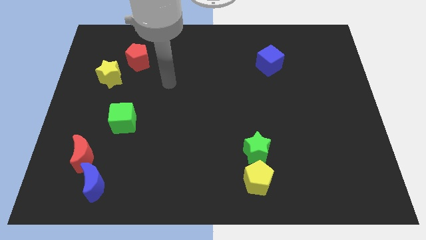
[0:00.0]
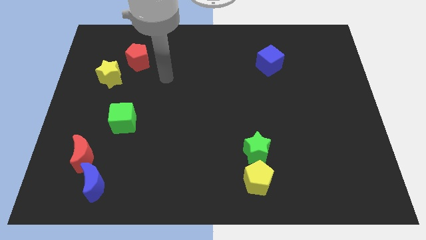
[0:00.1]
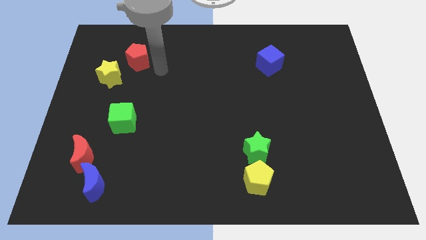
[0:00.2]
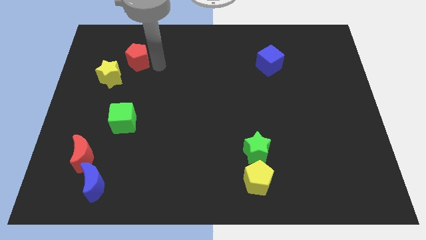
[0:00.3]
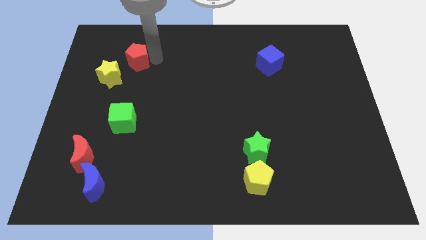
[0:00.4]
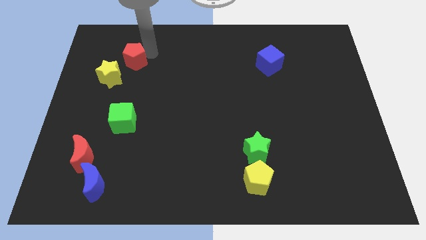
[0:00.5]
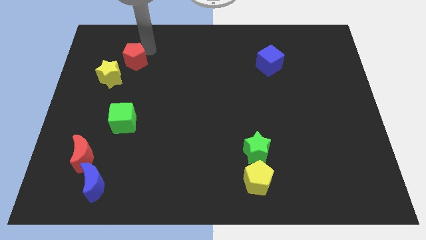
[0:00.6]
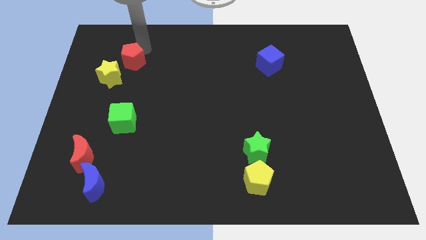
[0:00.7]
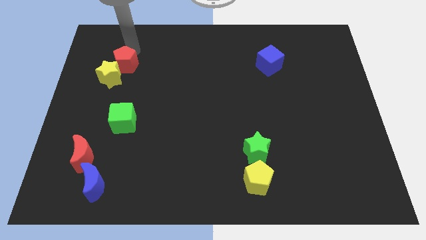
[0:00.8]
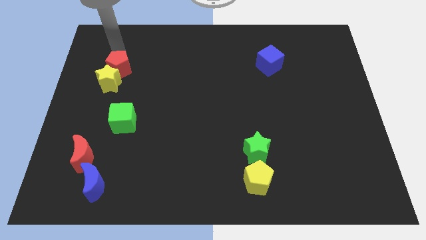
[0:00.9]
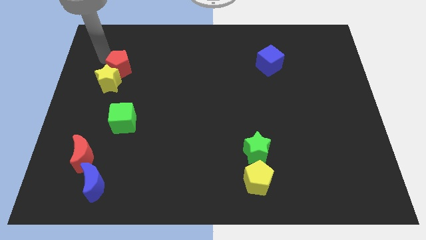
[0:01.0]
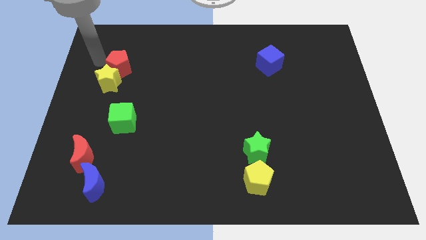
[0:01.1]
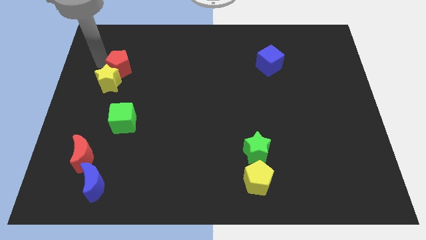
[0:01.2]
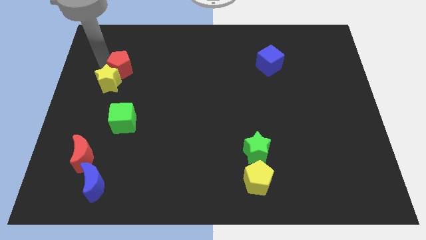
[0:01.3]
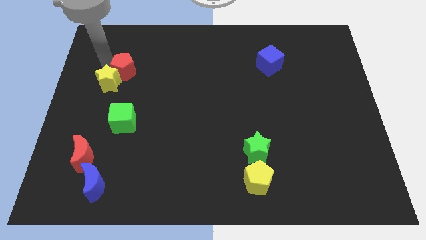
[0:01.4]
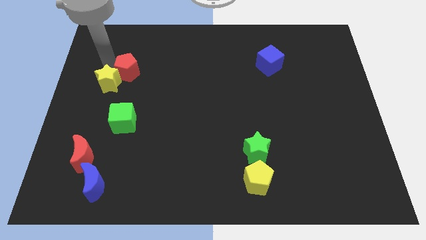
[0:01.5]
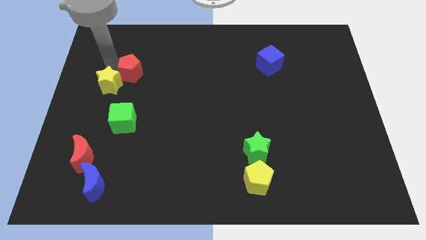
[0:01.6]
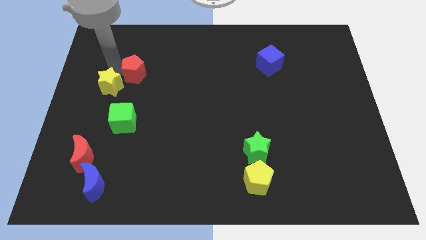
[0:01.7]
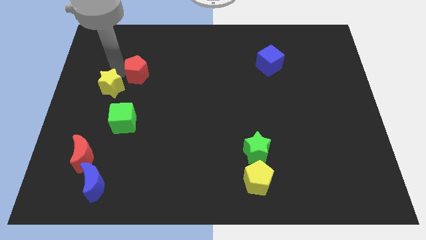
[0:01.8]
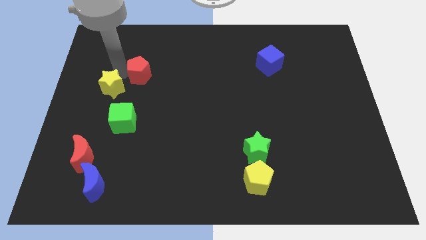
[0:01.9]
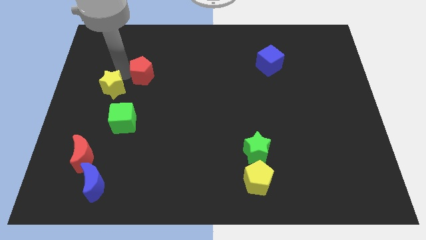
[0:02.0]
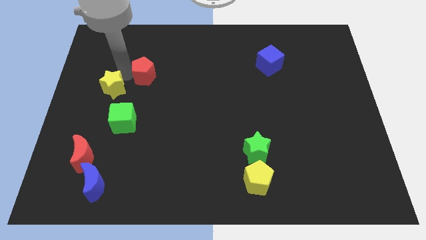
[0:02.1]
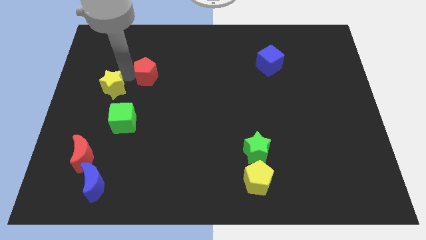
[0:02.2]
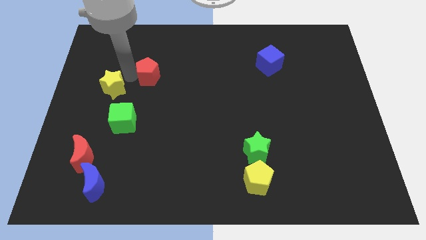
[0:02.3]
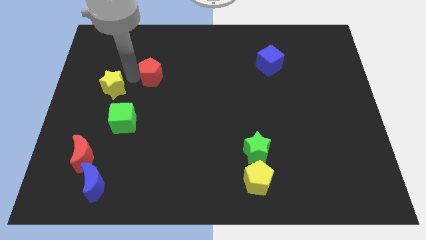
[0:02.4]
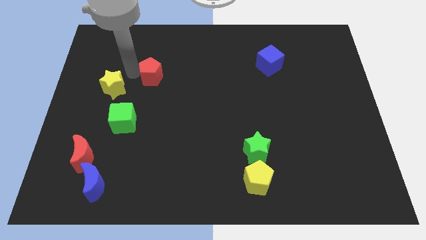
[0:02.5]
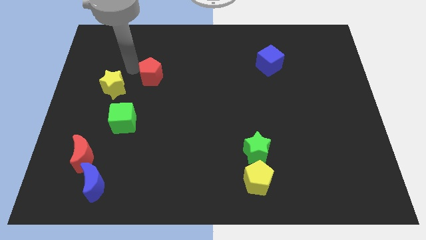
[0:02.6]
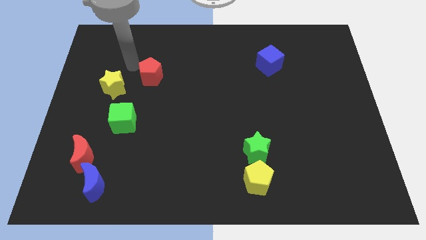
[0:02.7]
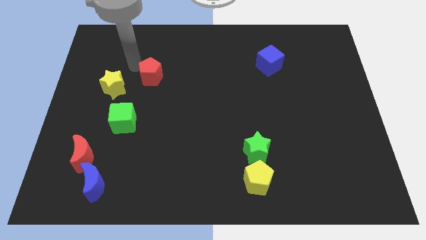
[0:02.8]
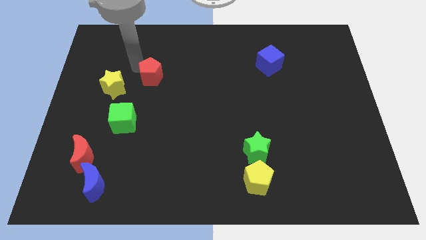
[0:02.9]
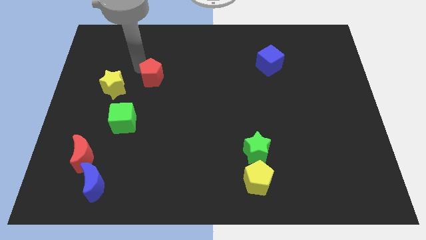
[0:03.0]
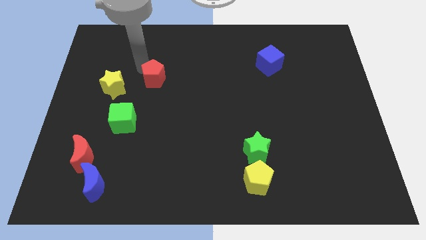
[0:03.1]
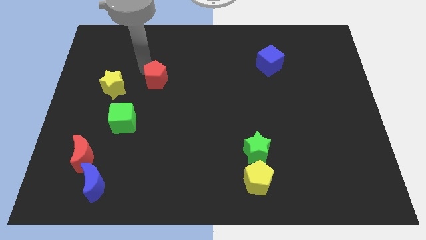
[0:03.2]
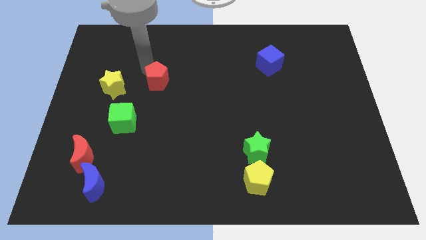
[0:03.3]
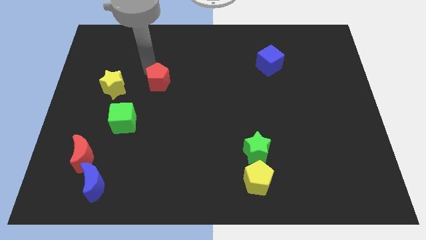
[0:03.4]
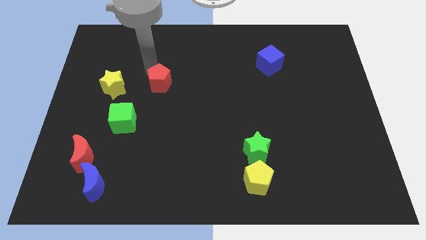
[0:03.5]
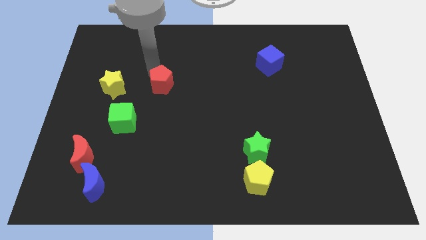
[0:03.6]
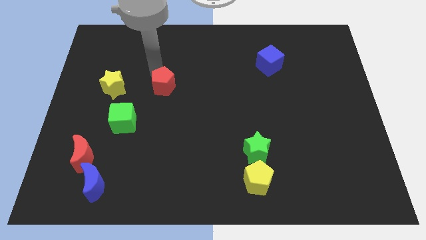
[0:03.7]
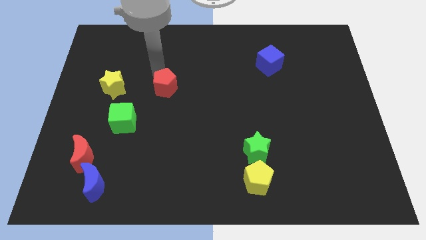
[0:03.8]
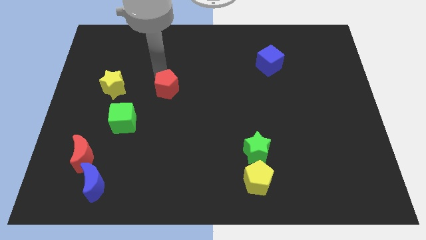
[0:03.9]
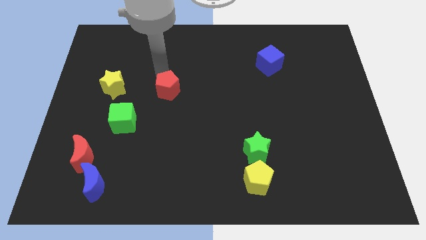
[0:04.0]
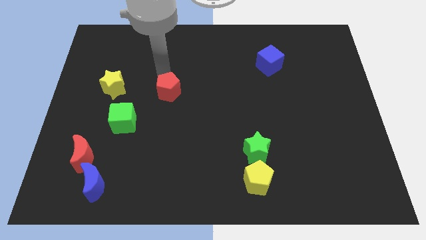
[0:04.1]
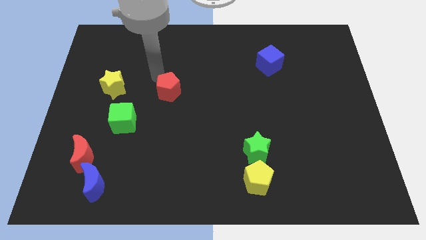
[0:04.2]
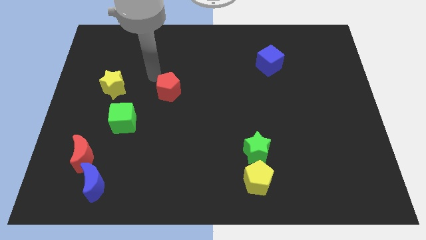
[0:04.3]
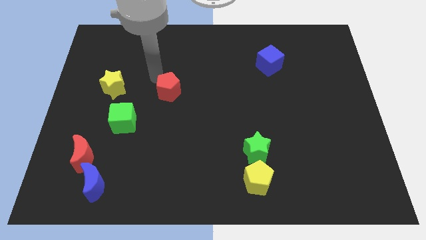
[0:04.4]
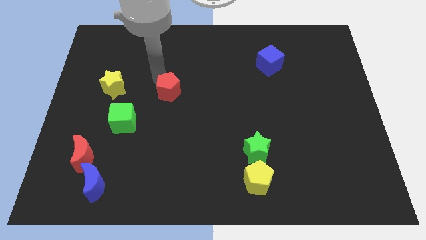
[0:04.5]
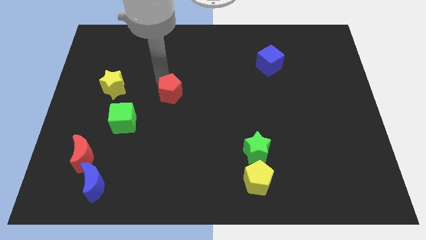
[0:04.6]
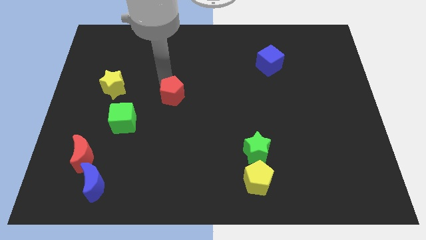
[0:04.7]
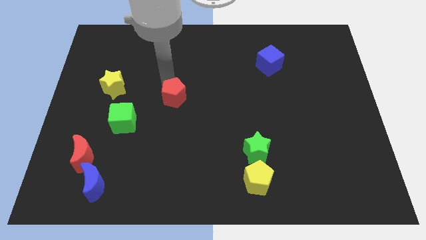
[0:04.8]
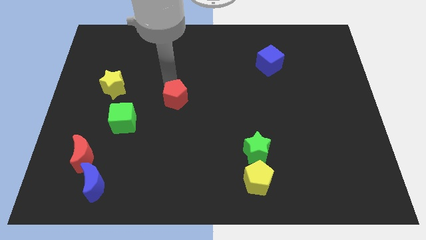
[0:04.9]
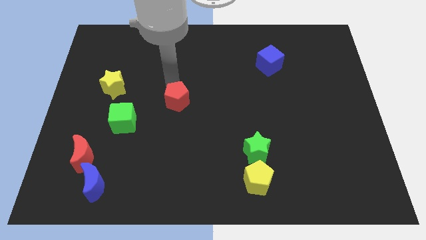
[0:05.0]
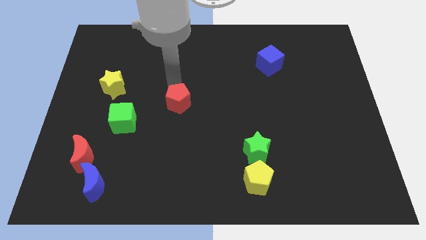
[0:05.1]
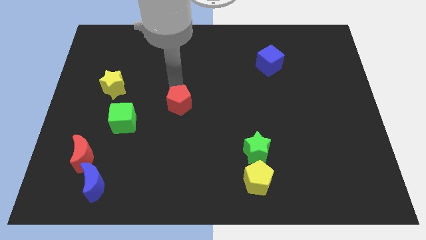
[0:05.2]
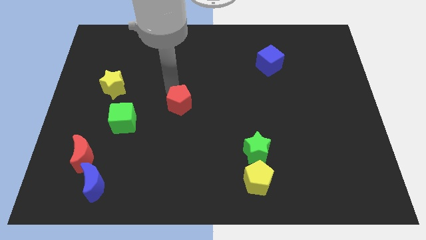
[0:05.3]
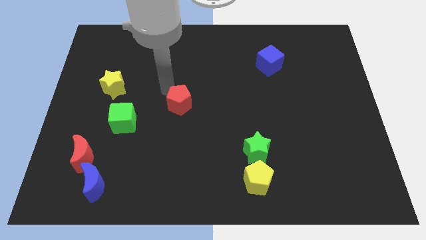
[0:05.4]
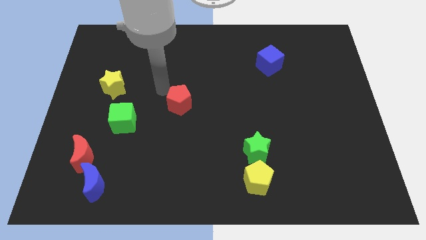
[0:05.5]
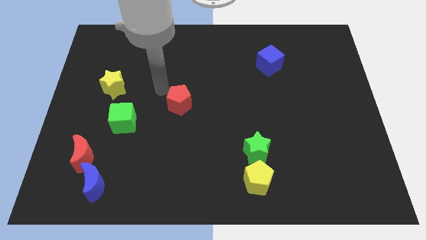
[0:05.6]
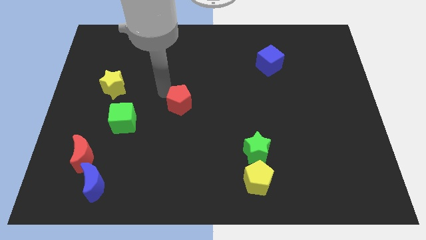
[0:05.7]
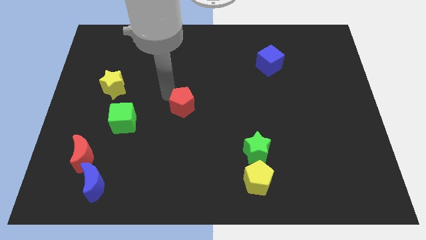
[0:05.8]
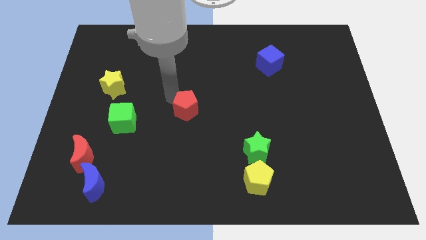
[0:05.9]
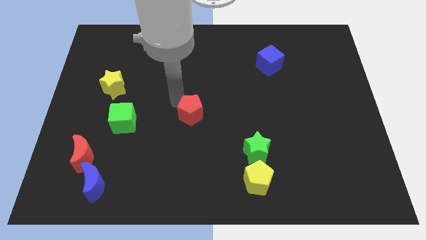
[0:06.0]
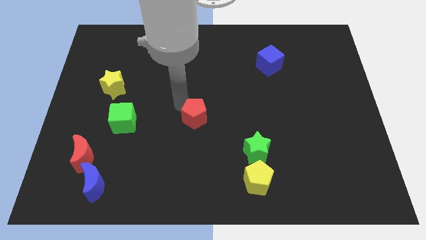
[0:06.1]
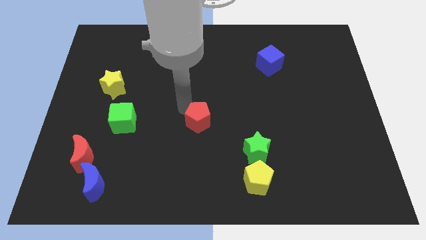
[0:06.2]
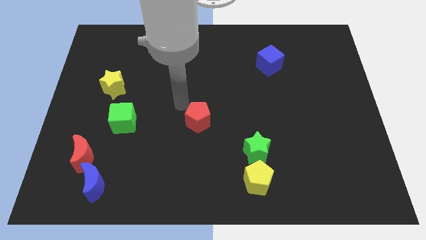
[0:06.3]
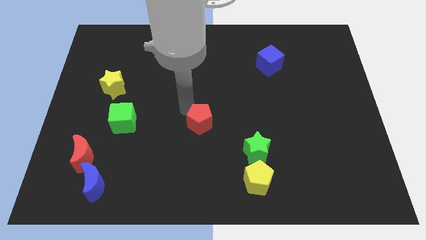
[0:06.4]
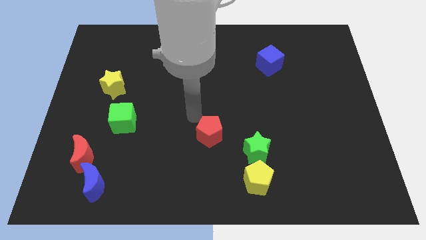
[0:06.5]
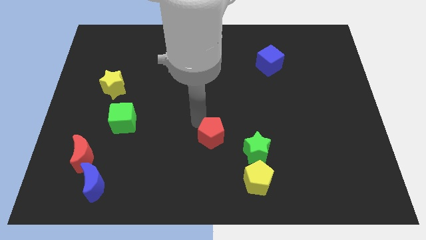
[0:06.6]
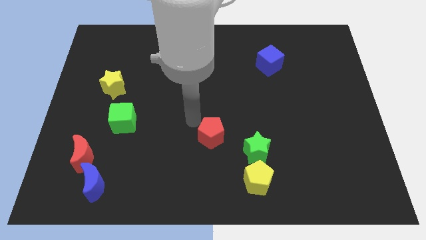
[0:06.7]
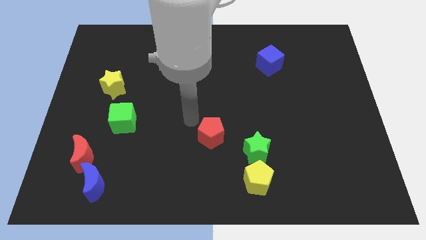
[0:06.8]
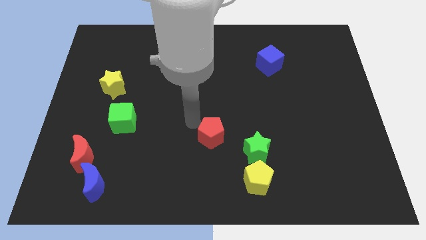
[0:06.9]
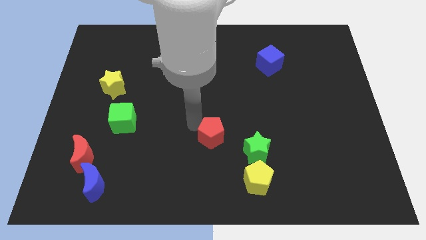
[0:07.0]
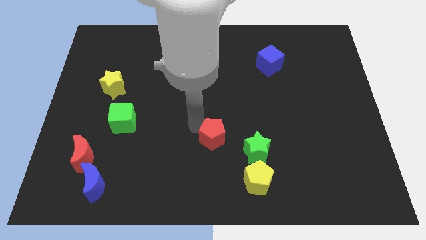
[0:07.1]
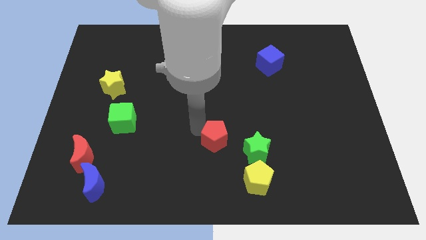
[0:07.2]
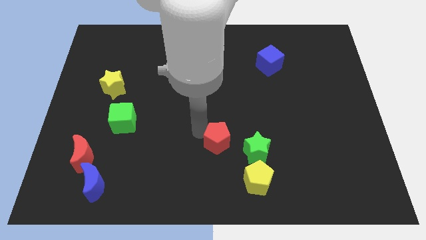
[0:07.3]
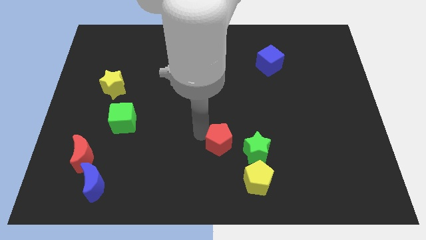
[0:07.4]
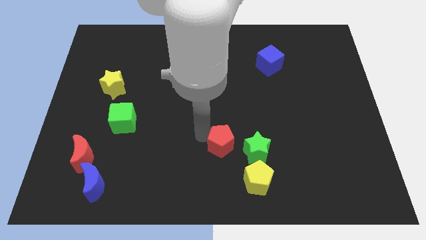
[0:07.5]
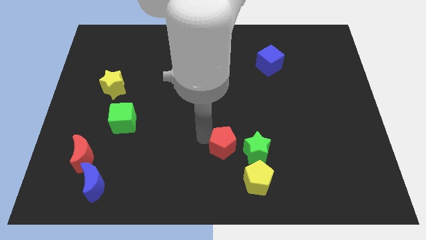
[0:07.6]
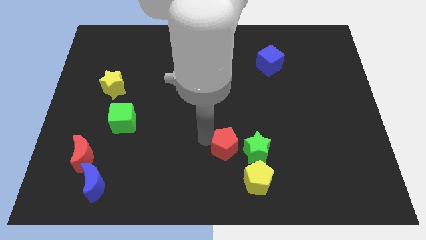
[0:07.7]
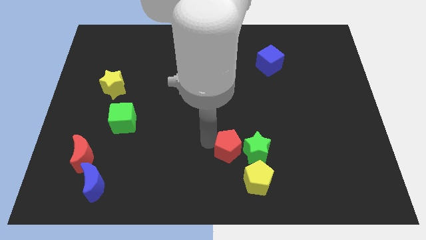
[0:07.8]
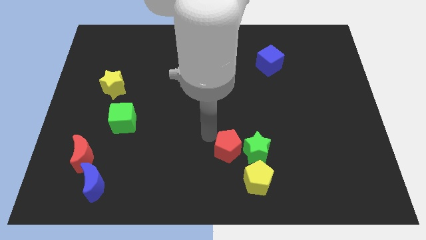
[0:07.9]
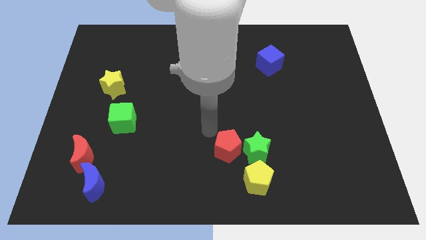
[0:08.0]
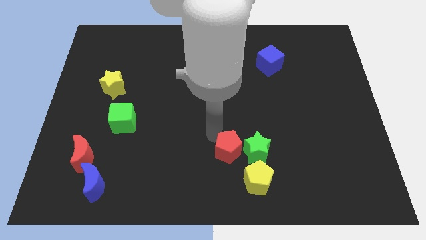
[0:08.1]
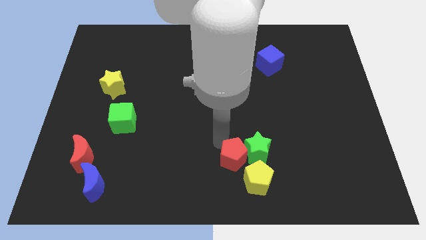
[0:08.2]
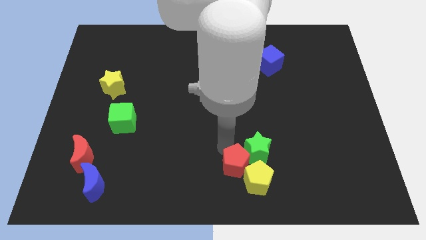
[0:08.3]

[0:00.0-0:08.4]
push the red pentagon close to the yellow pentagon
